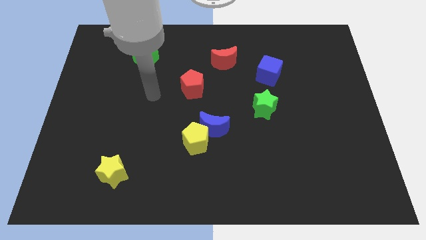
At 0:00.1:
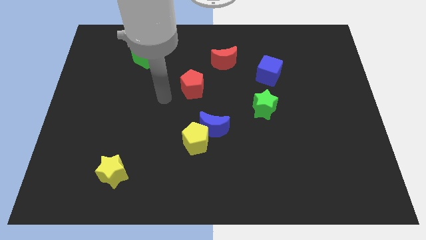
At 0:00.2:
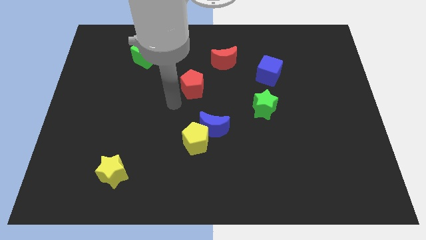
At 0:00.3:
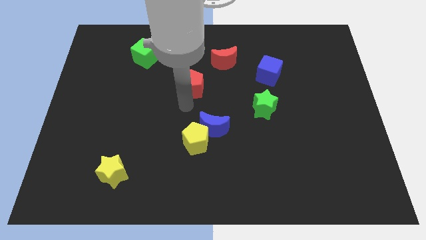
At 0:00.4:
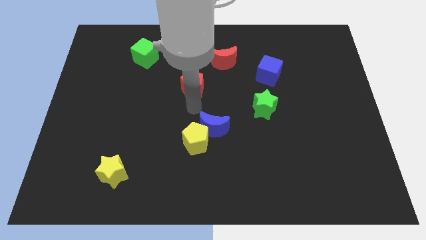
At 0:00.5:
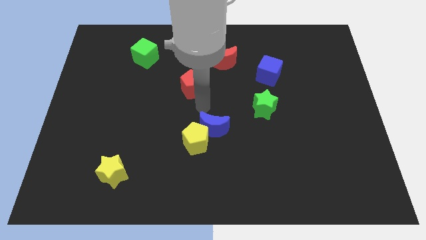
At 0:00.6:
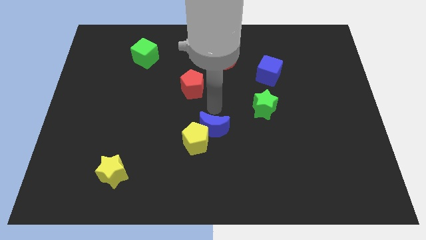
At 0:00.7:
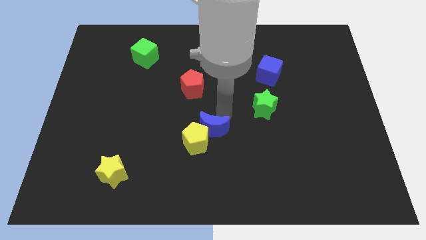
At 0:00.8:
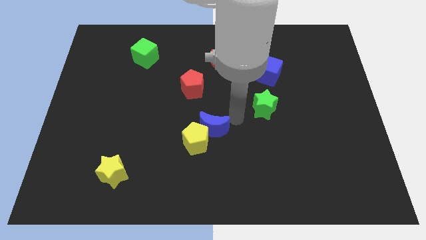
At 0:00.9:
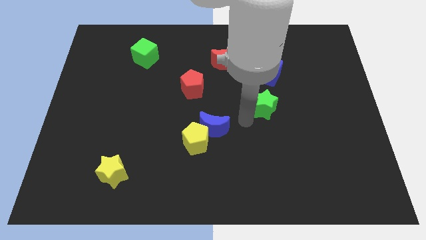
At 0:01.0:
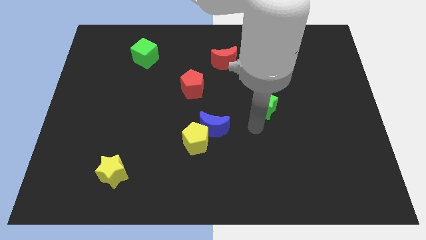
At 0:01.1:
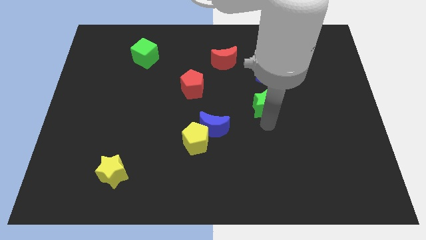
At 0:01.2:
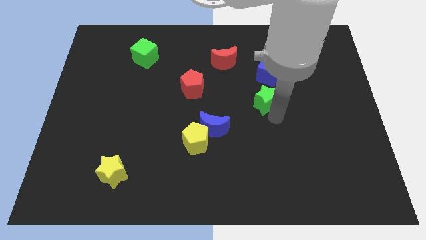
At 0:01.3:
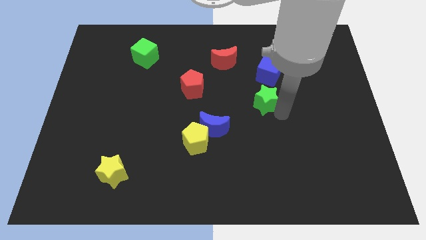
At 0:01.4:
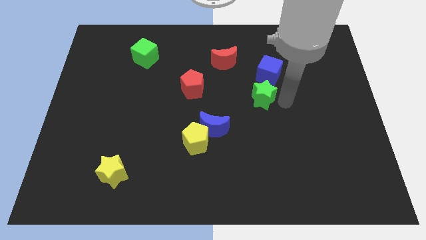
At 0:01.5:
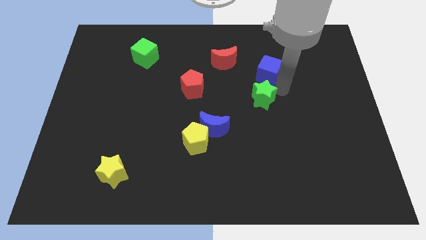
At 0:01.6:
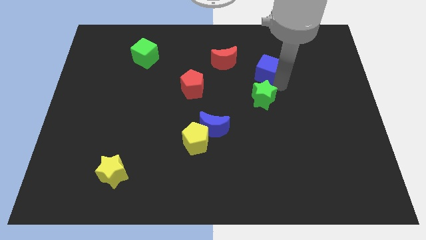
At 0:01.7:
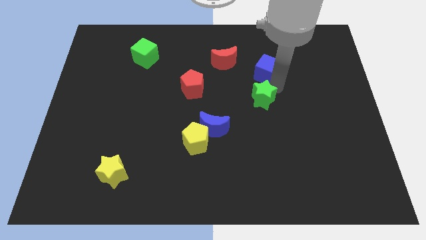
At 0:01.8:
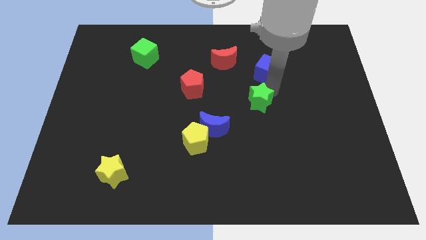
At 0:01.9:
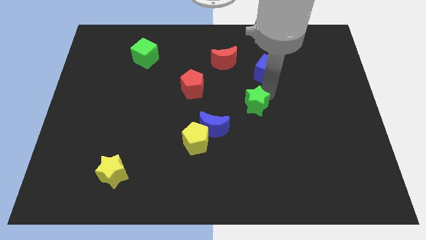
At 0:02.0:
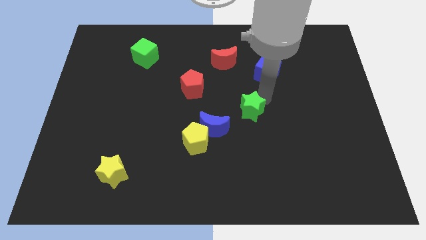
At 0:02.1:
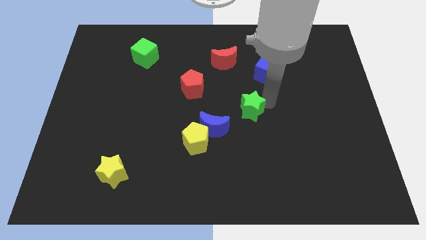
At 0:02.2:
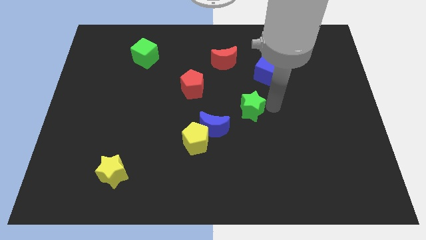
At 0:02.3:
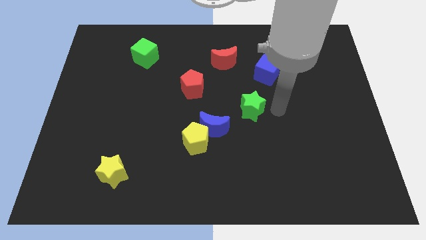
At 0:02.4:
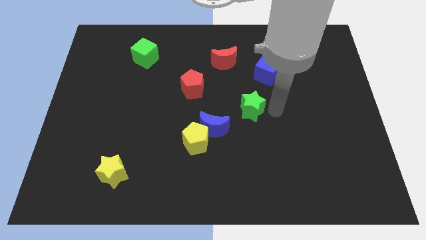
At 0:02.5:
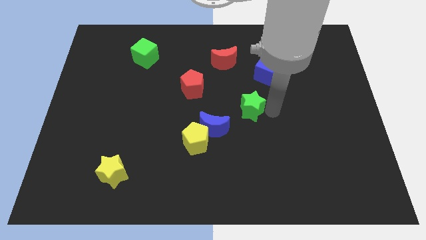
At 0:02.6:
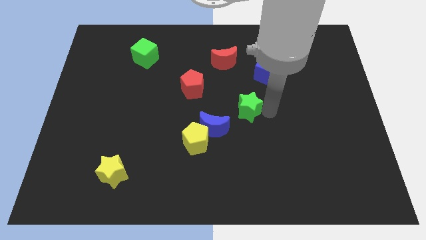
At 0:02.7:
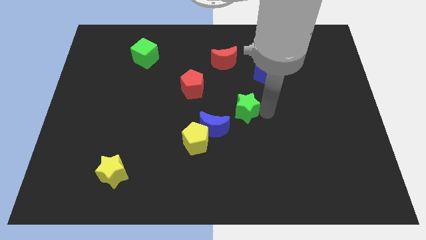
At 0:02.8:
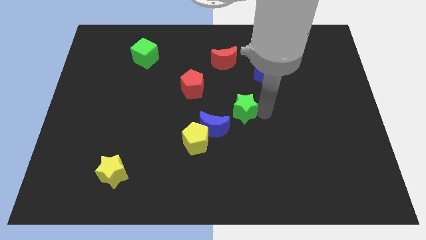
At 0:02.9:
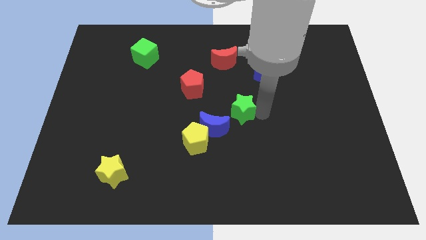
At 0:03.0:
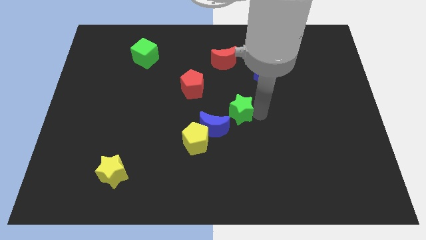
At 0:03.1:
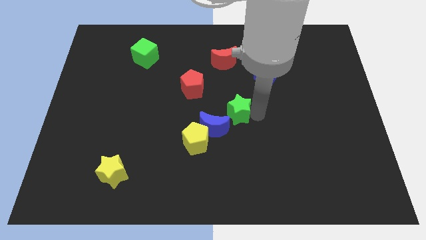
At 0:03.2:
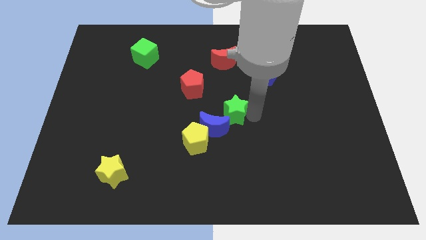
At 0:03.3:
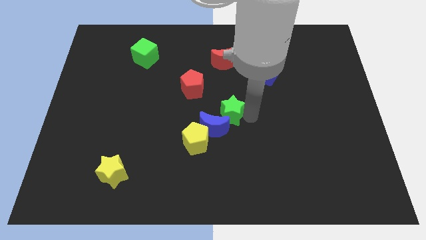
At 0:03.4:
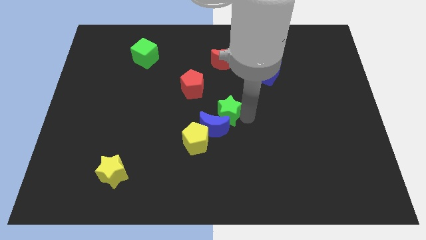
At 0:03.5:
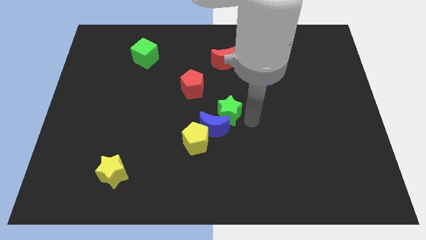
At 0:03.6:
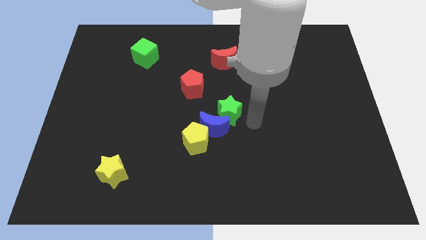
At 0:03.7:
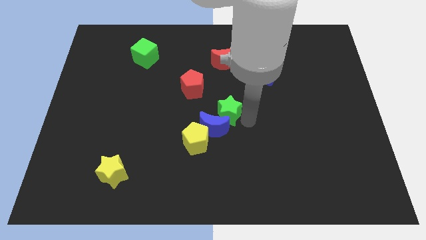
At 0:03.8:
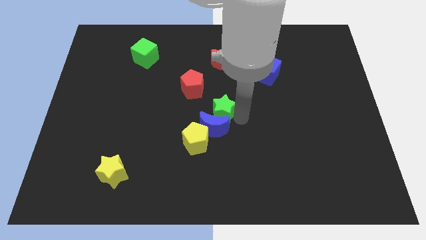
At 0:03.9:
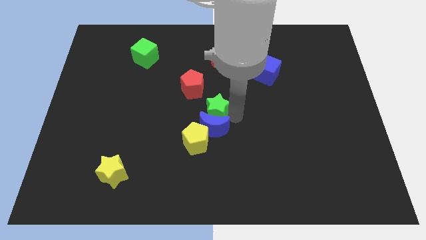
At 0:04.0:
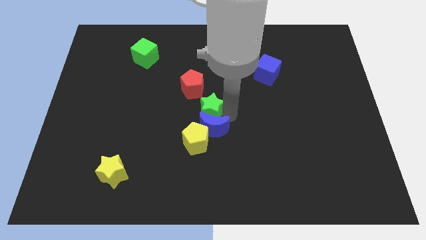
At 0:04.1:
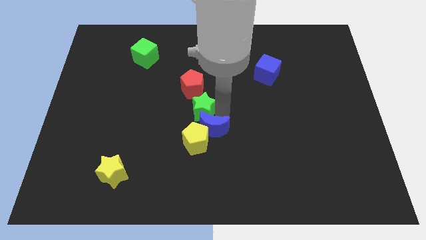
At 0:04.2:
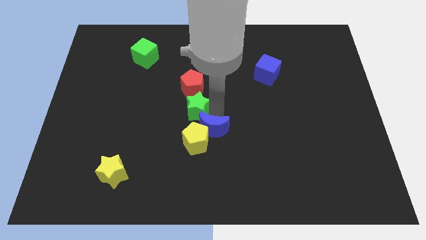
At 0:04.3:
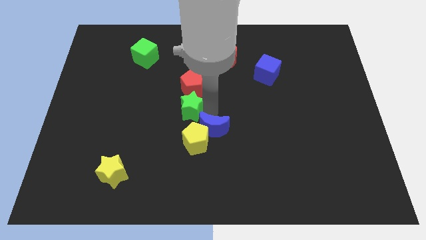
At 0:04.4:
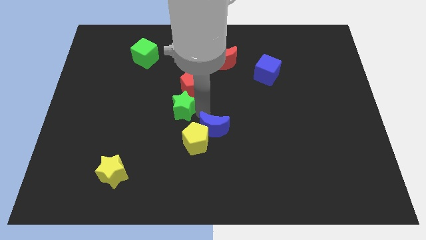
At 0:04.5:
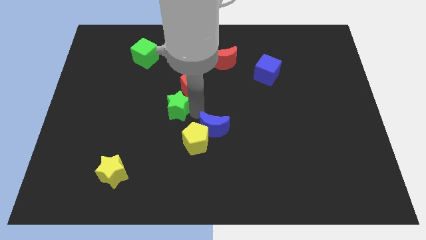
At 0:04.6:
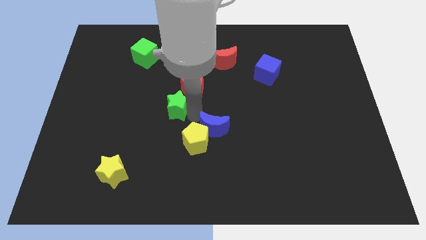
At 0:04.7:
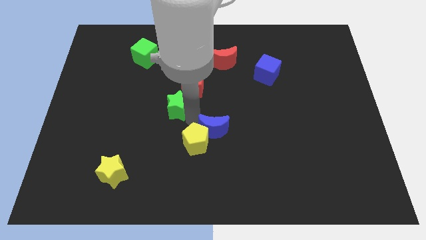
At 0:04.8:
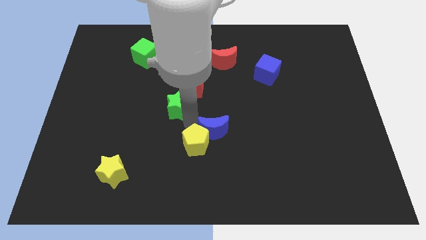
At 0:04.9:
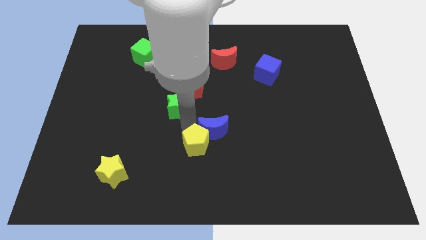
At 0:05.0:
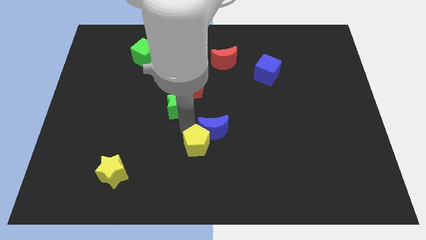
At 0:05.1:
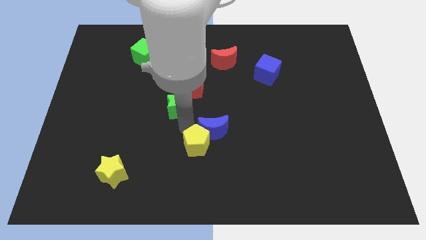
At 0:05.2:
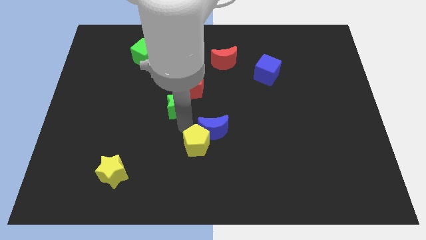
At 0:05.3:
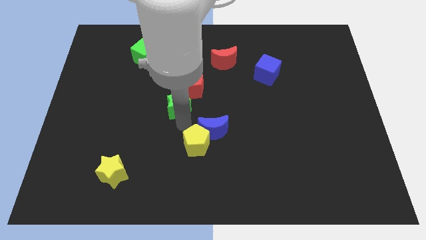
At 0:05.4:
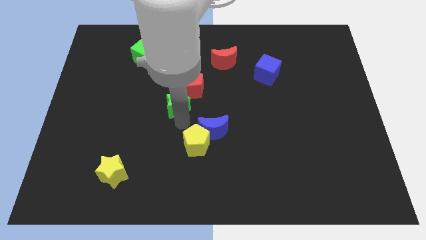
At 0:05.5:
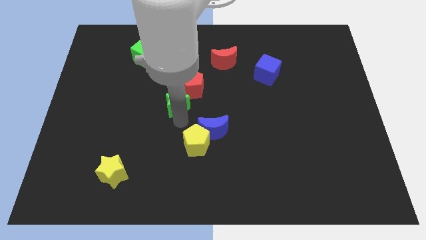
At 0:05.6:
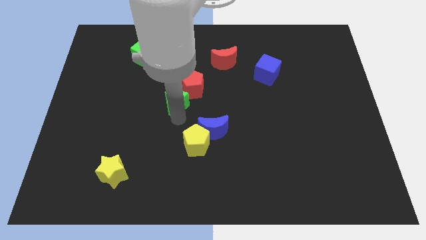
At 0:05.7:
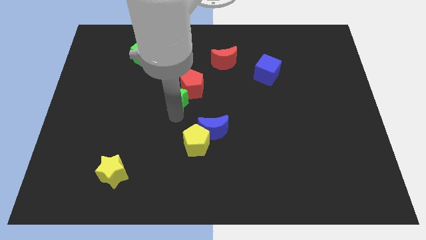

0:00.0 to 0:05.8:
put the green star to the left of the red pentagon
